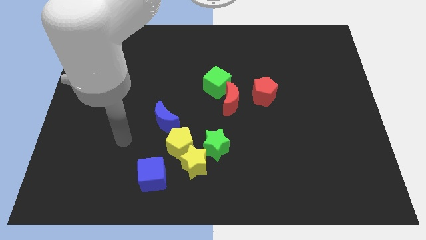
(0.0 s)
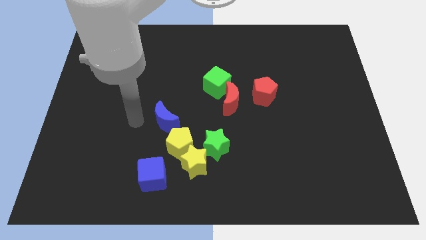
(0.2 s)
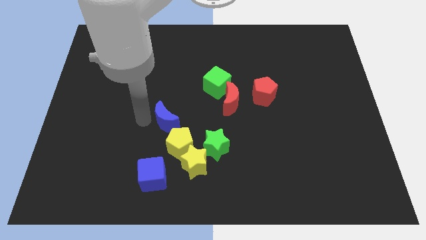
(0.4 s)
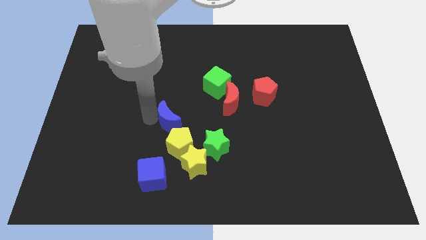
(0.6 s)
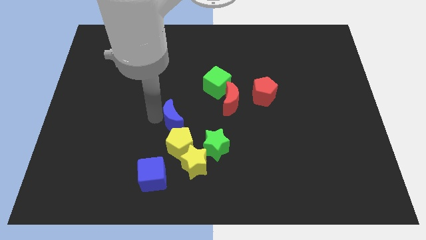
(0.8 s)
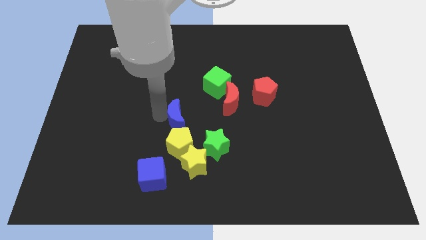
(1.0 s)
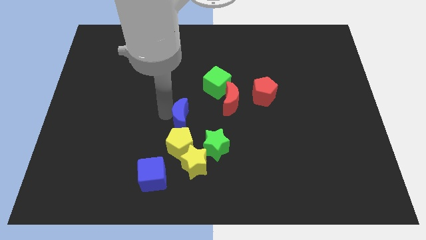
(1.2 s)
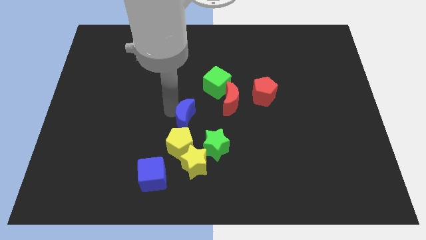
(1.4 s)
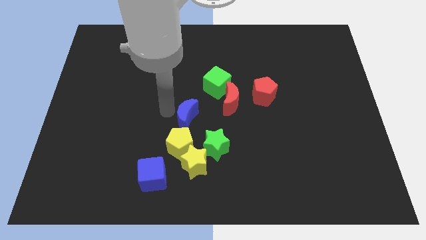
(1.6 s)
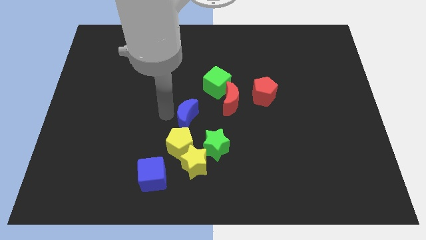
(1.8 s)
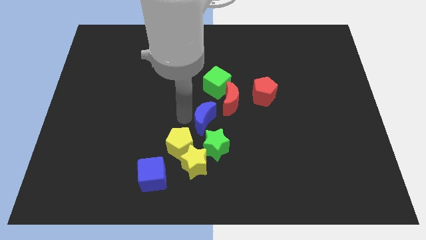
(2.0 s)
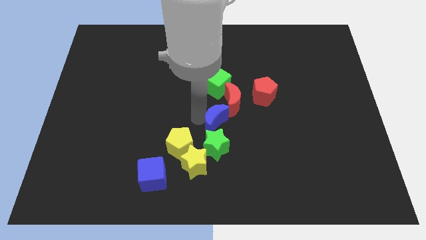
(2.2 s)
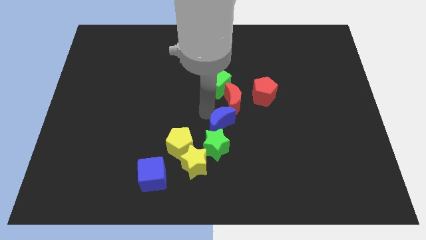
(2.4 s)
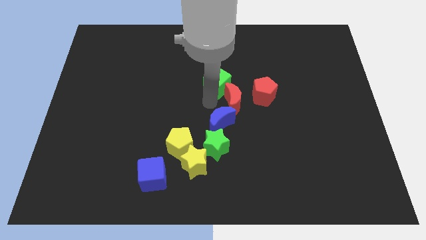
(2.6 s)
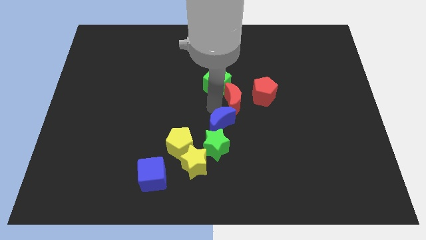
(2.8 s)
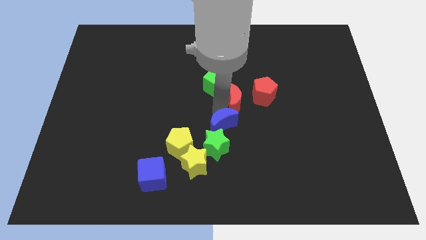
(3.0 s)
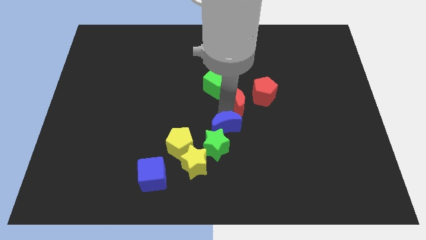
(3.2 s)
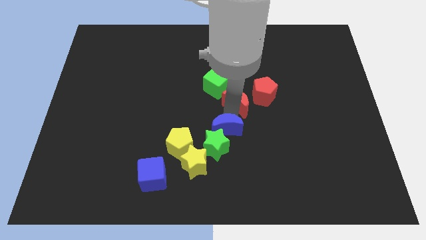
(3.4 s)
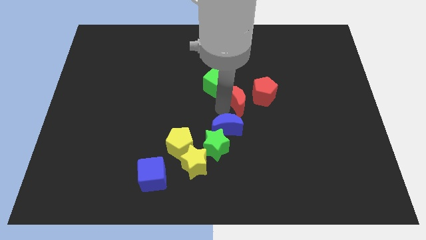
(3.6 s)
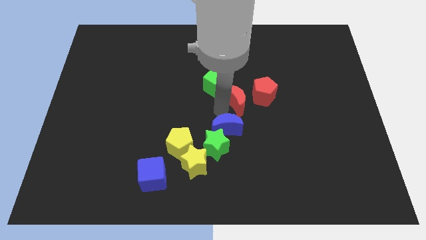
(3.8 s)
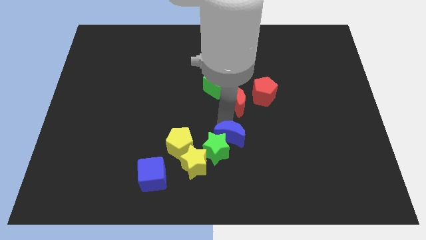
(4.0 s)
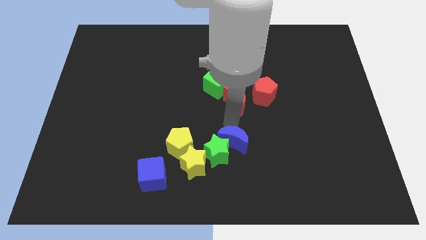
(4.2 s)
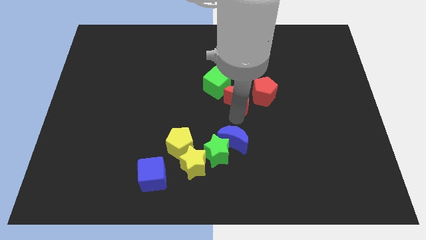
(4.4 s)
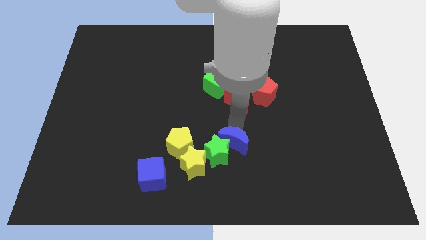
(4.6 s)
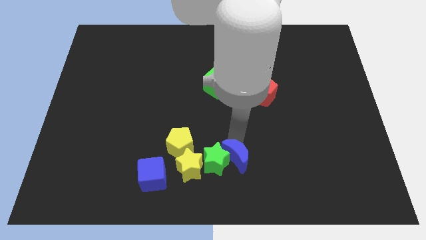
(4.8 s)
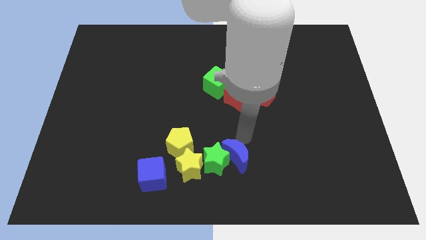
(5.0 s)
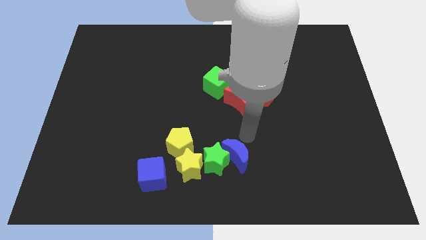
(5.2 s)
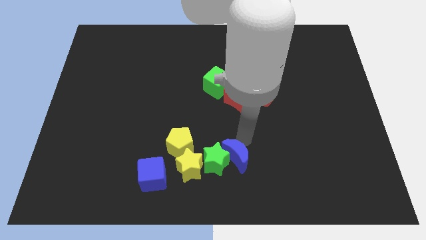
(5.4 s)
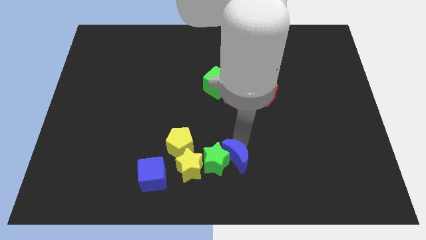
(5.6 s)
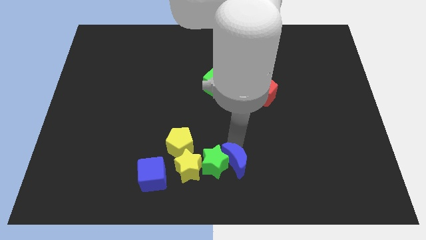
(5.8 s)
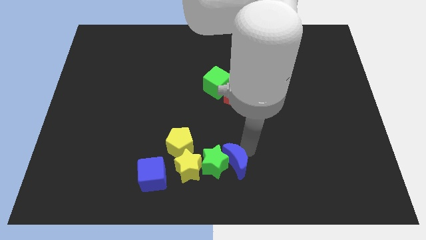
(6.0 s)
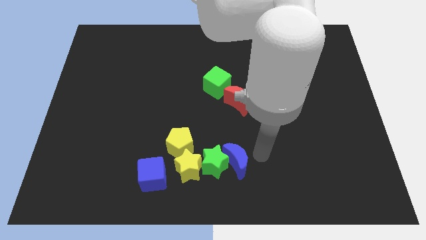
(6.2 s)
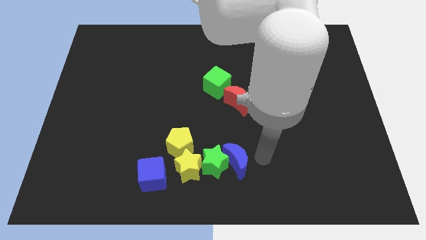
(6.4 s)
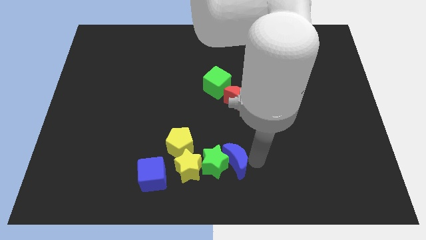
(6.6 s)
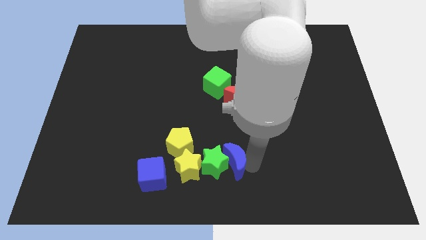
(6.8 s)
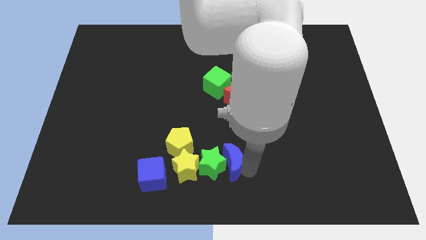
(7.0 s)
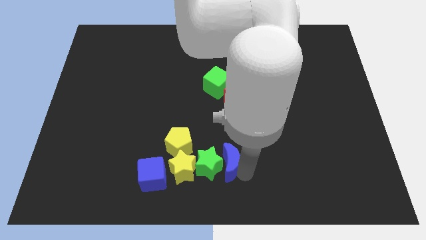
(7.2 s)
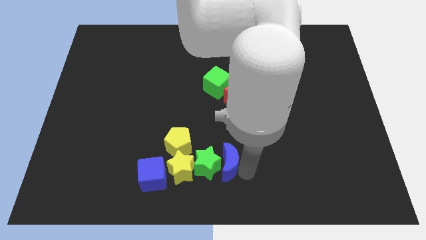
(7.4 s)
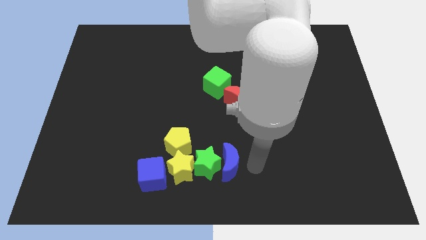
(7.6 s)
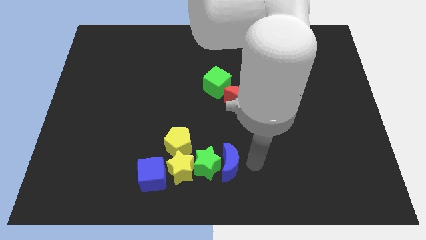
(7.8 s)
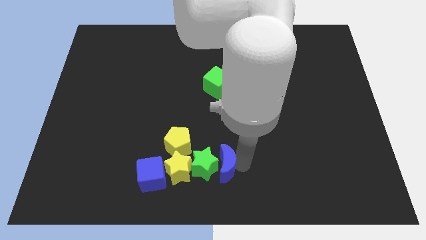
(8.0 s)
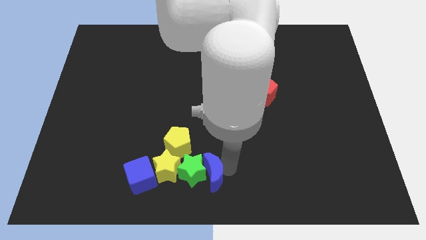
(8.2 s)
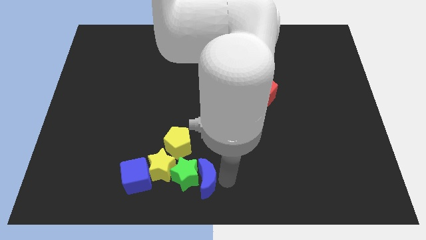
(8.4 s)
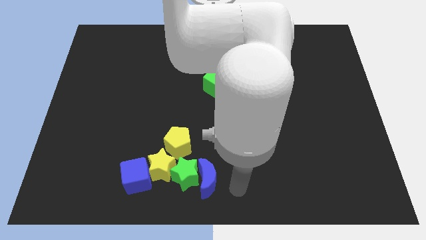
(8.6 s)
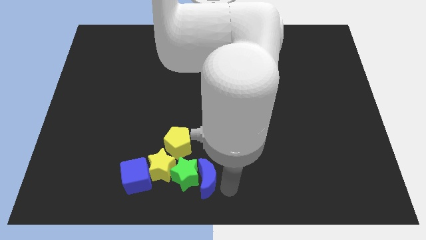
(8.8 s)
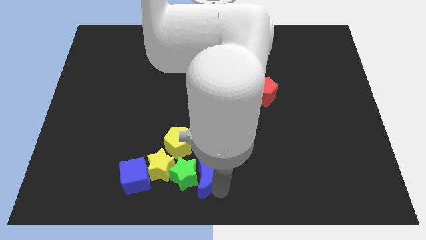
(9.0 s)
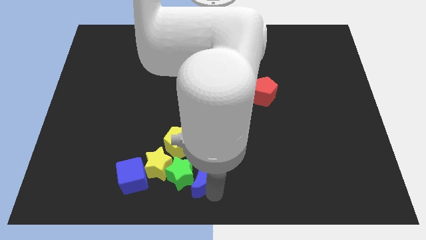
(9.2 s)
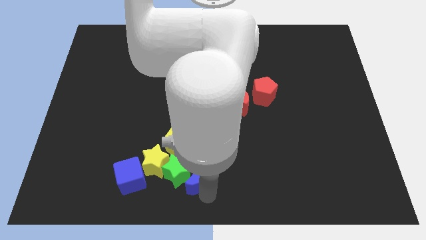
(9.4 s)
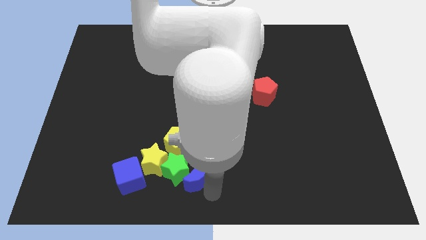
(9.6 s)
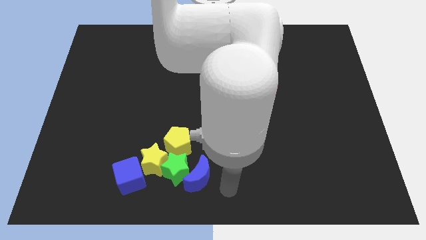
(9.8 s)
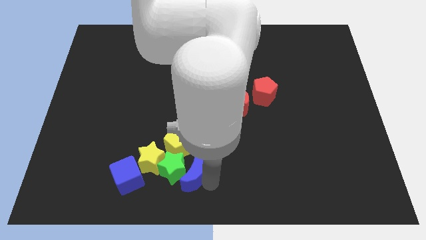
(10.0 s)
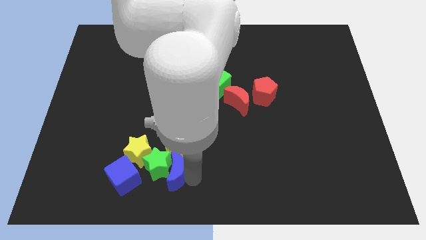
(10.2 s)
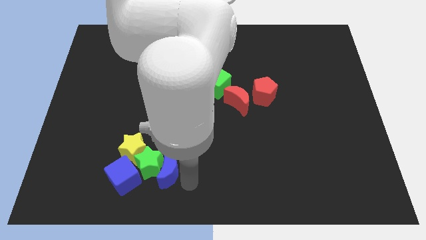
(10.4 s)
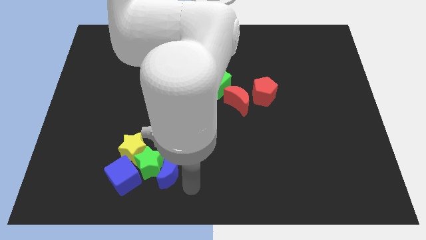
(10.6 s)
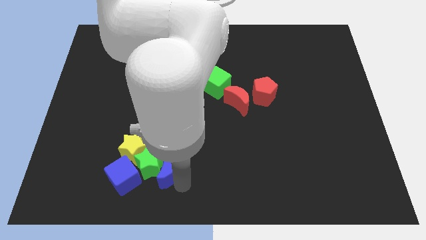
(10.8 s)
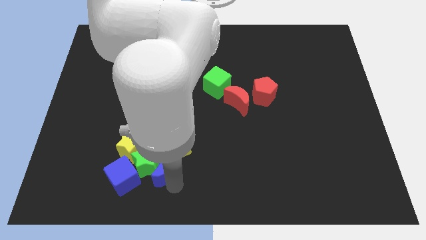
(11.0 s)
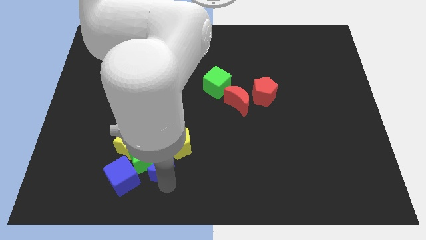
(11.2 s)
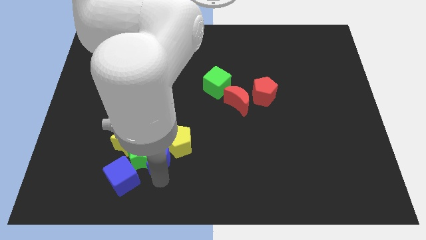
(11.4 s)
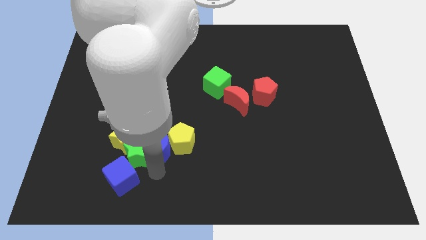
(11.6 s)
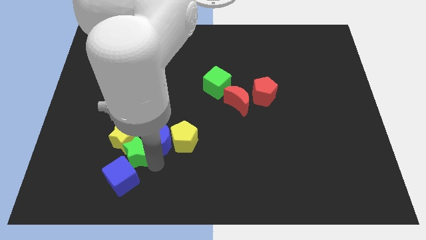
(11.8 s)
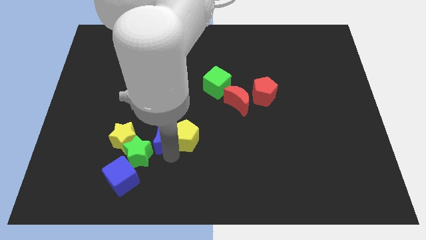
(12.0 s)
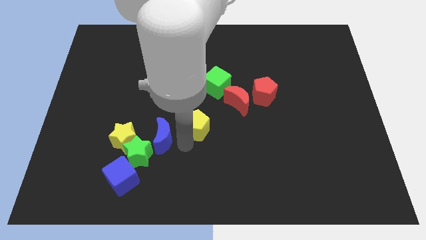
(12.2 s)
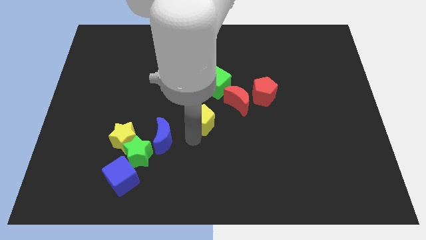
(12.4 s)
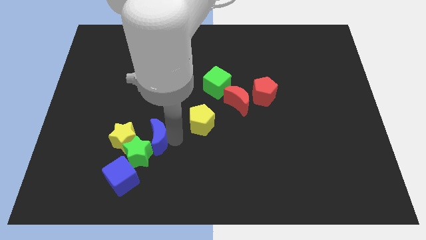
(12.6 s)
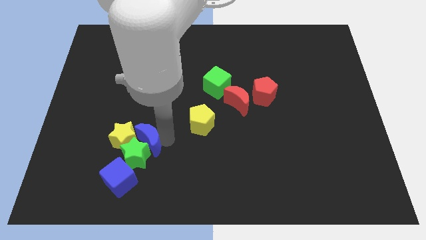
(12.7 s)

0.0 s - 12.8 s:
push the blue moon to the yellow star

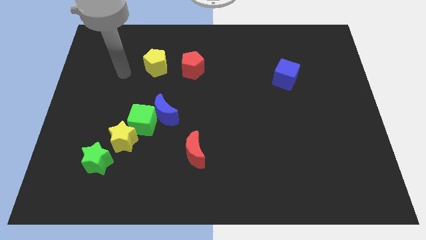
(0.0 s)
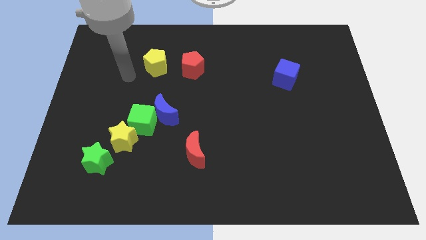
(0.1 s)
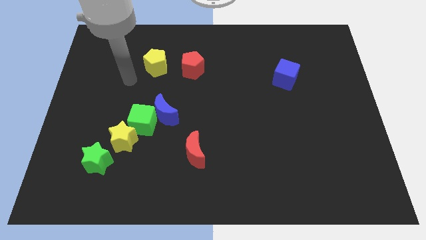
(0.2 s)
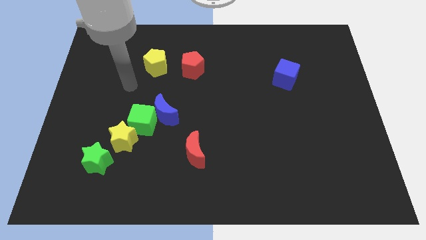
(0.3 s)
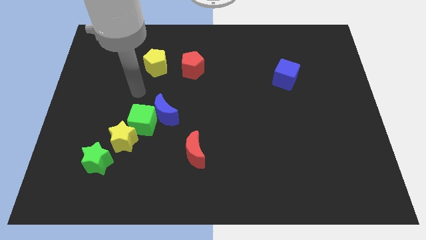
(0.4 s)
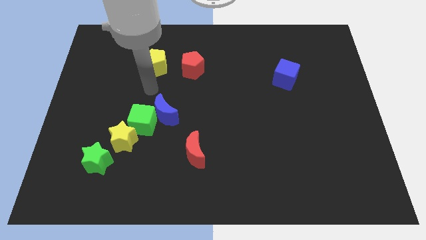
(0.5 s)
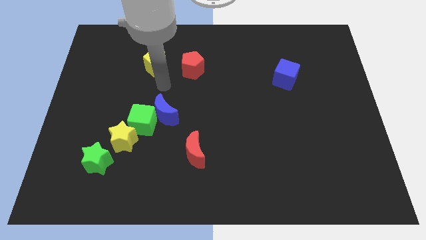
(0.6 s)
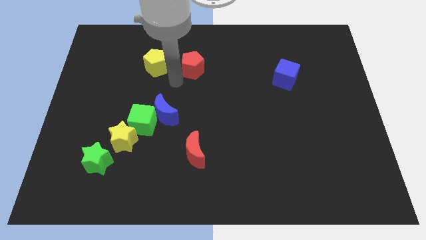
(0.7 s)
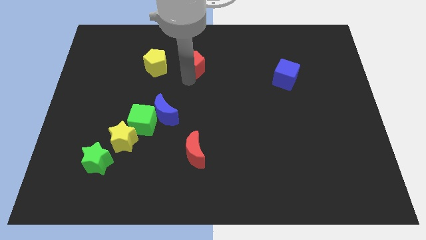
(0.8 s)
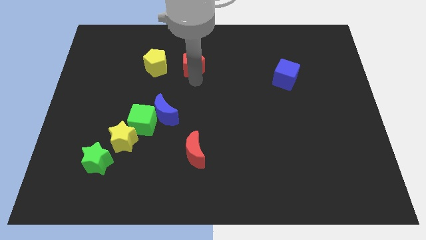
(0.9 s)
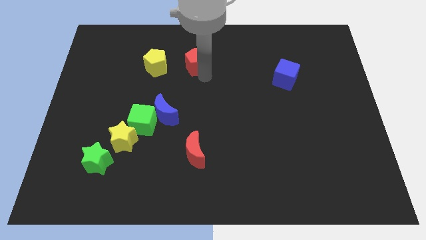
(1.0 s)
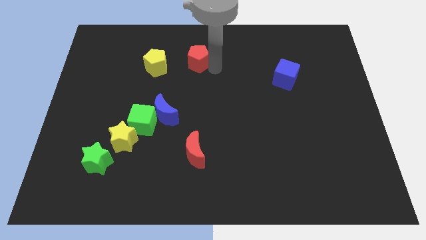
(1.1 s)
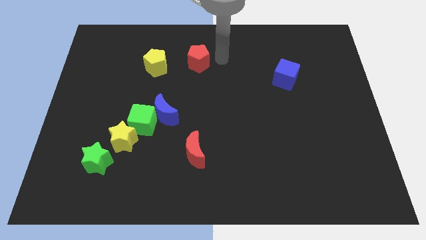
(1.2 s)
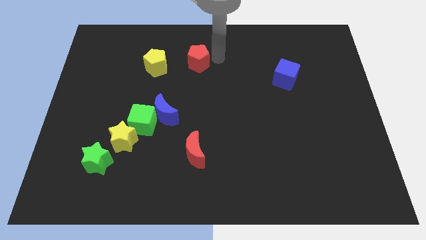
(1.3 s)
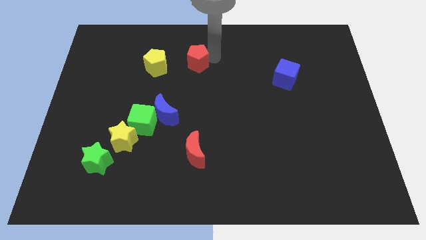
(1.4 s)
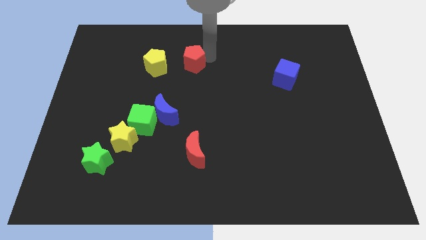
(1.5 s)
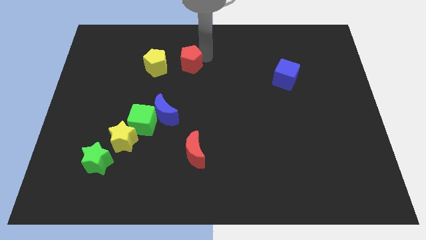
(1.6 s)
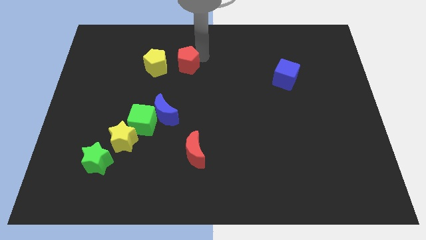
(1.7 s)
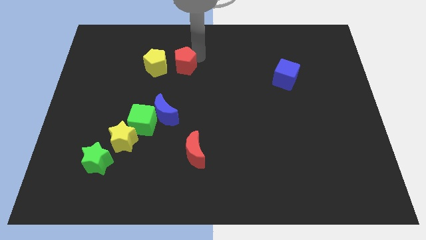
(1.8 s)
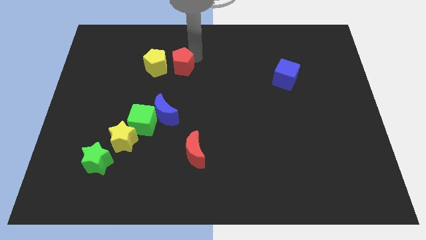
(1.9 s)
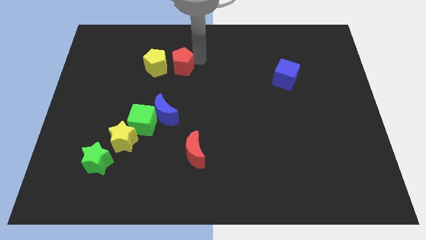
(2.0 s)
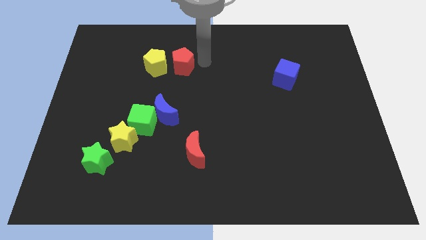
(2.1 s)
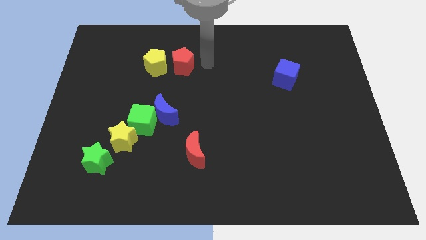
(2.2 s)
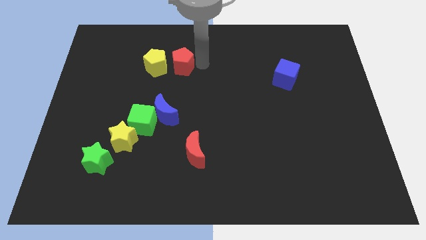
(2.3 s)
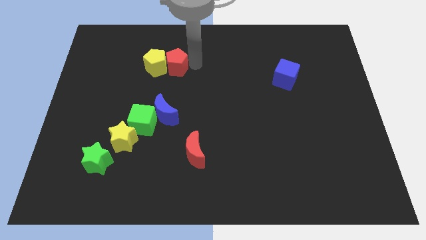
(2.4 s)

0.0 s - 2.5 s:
push the red pentagon to the yellow pentagon
